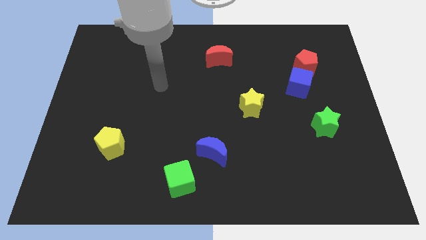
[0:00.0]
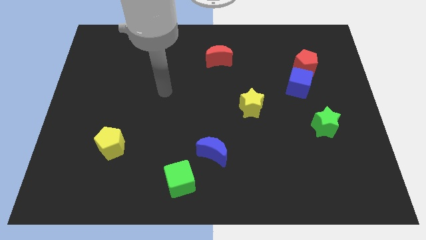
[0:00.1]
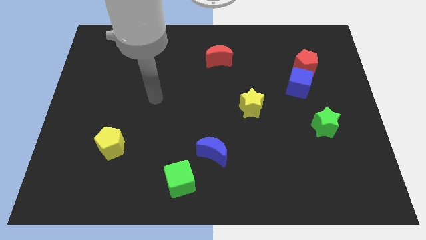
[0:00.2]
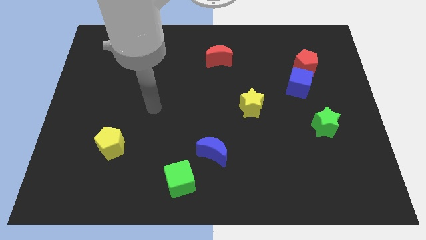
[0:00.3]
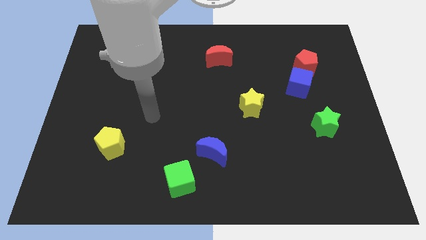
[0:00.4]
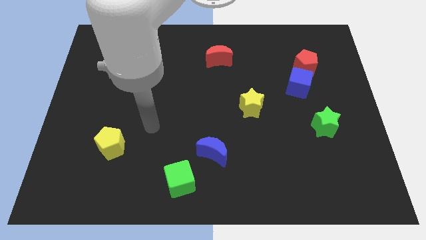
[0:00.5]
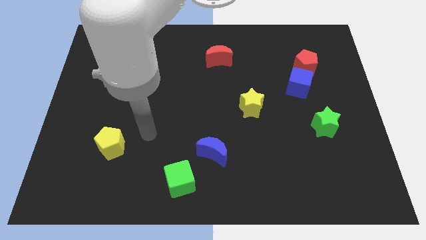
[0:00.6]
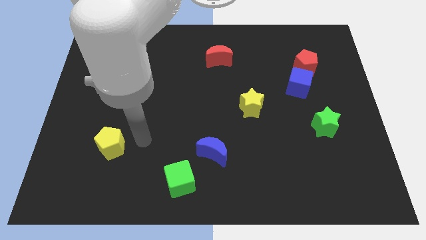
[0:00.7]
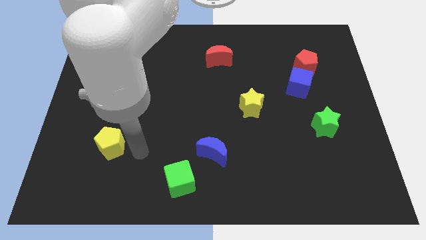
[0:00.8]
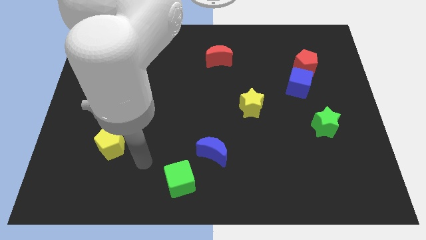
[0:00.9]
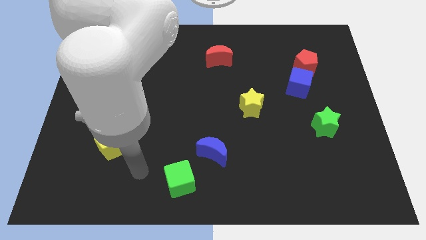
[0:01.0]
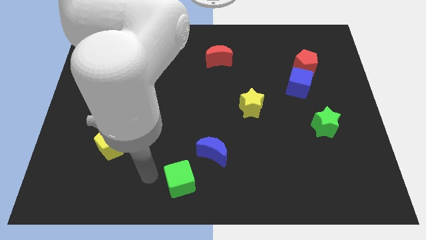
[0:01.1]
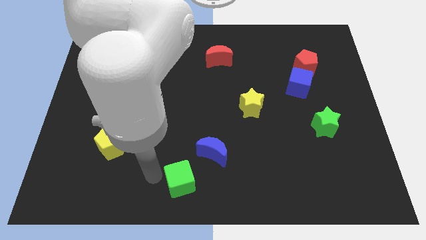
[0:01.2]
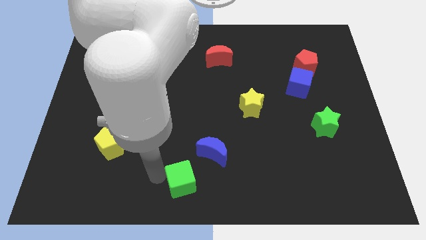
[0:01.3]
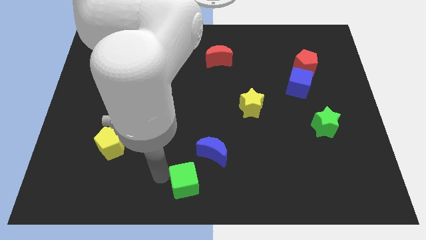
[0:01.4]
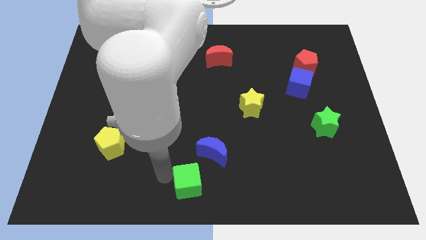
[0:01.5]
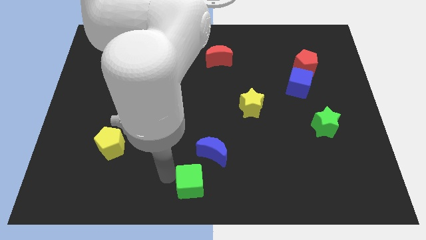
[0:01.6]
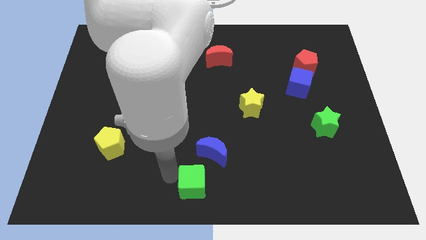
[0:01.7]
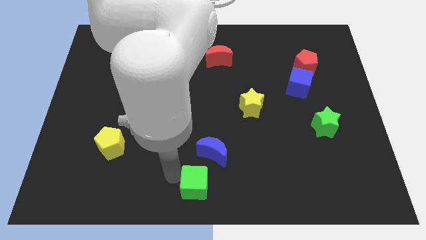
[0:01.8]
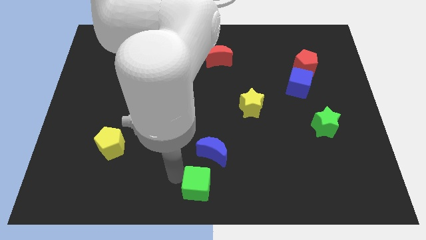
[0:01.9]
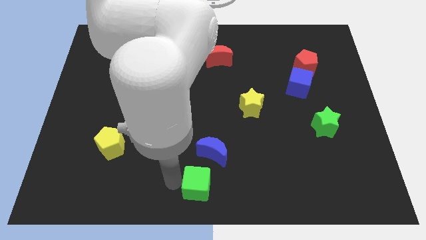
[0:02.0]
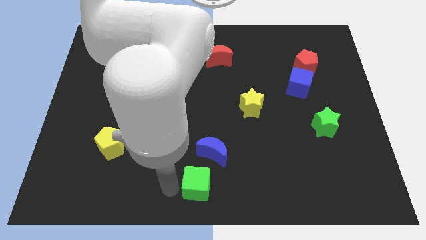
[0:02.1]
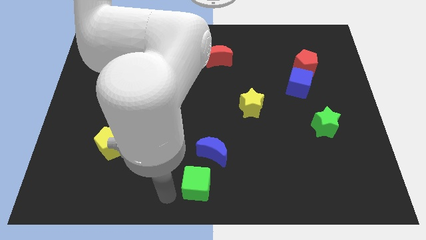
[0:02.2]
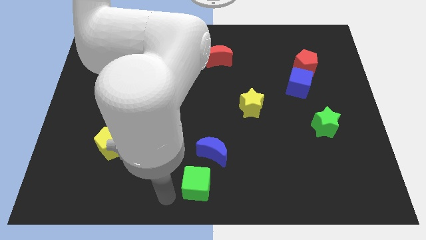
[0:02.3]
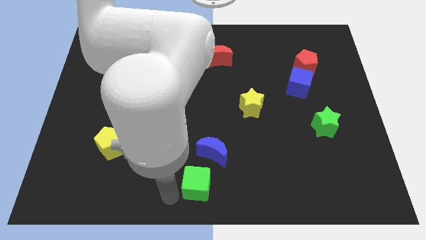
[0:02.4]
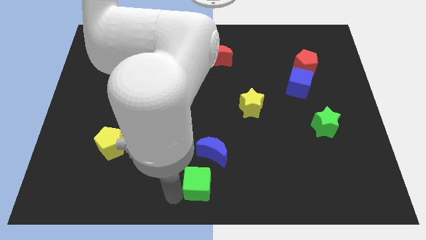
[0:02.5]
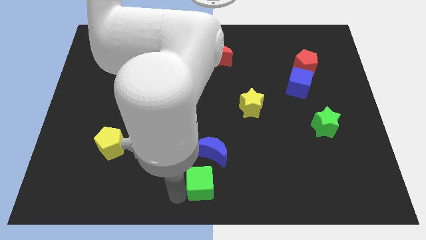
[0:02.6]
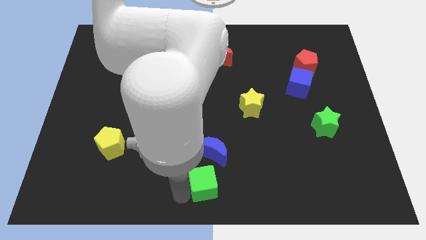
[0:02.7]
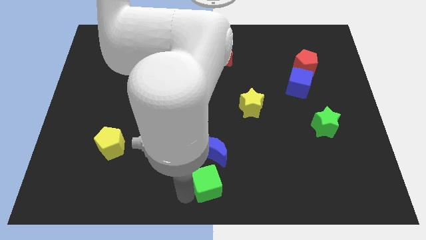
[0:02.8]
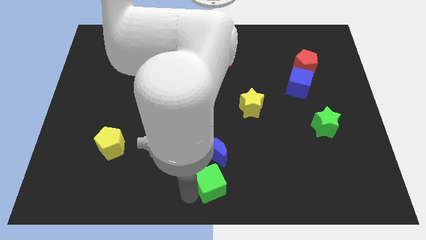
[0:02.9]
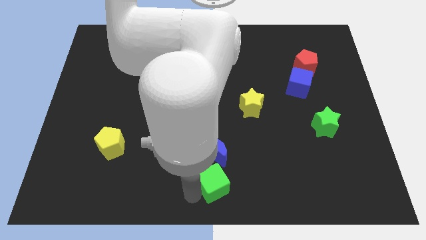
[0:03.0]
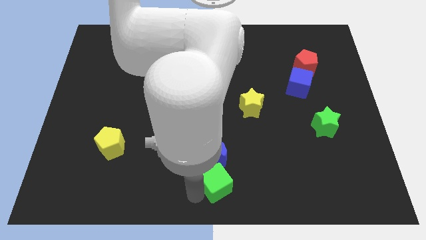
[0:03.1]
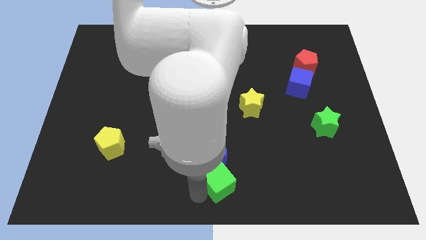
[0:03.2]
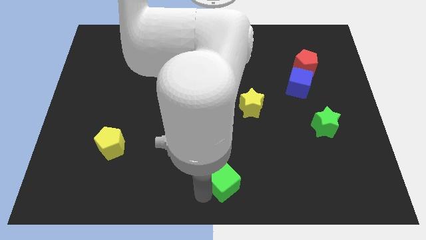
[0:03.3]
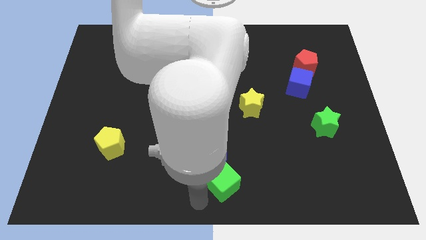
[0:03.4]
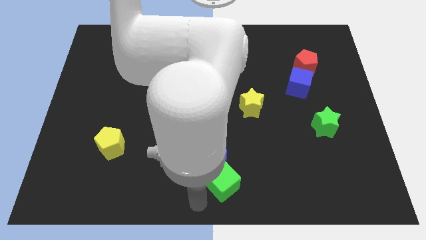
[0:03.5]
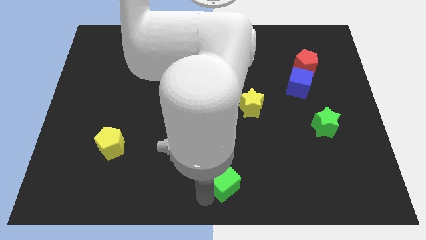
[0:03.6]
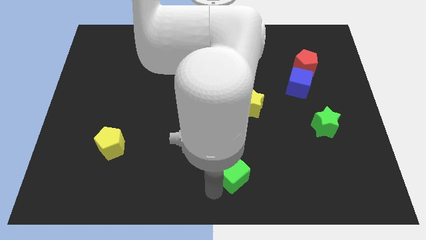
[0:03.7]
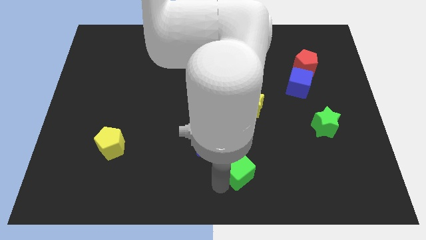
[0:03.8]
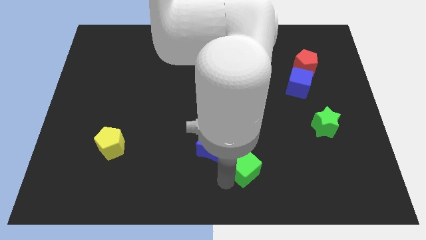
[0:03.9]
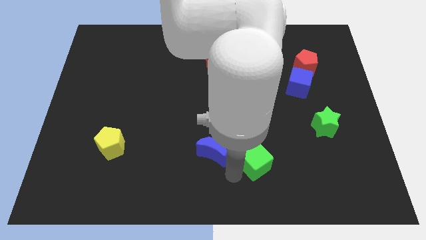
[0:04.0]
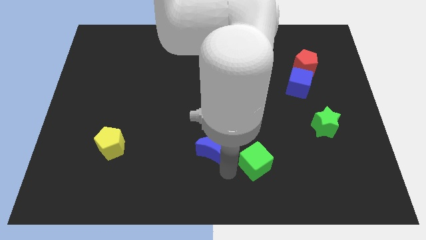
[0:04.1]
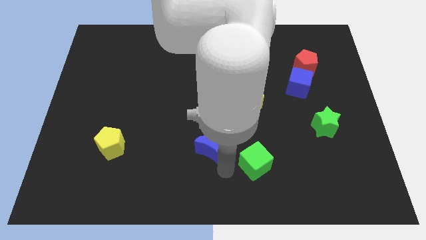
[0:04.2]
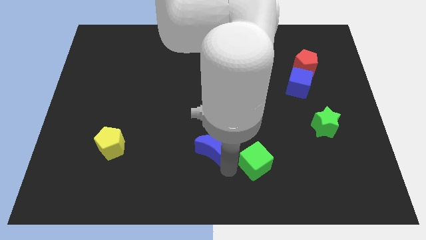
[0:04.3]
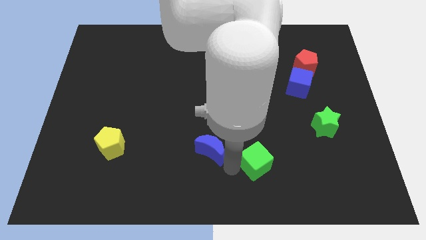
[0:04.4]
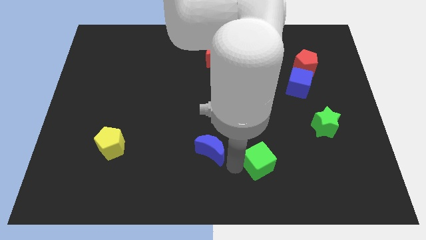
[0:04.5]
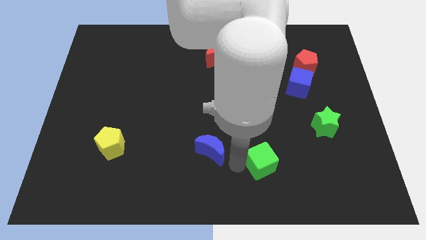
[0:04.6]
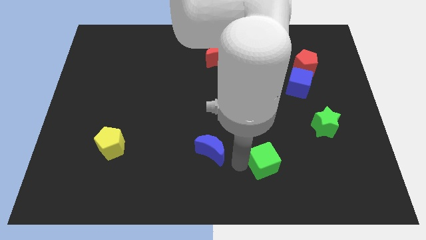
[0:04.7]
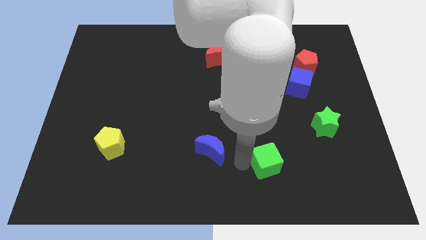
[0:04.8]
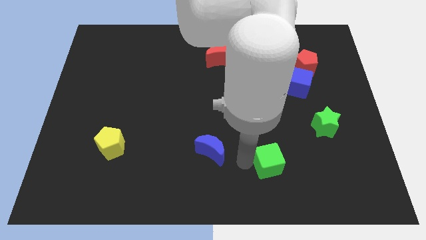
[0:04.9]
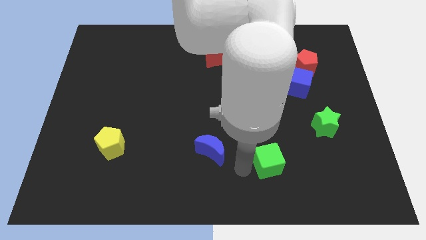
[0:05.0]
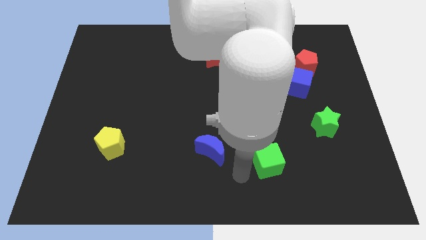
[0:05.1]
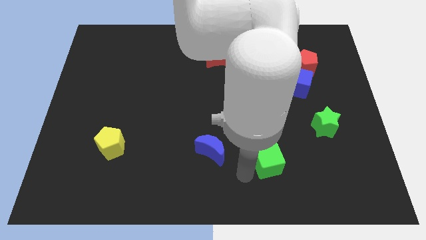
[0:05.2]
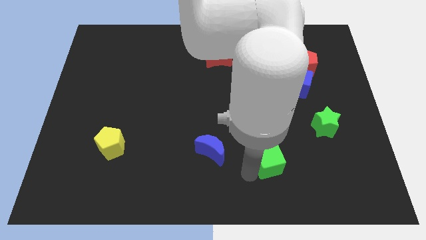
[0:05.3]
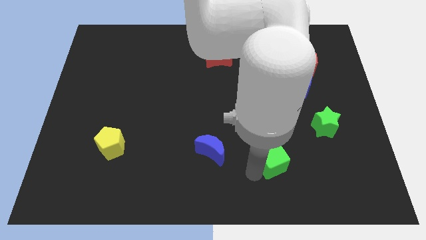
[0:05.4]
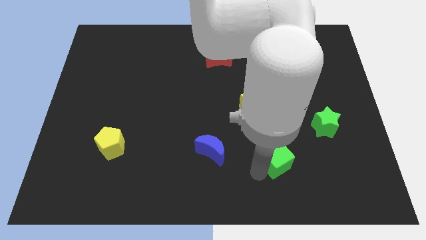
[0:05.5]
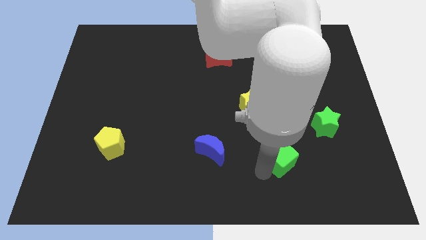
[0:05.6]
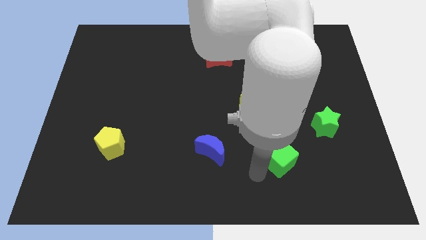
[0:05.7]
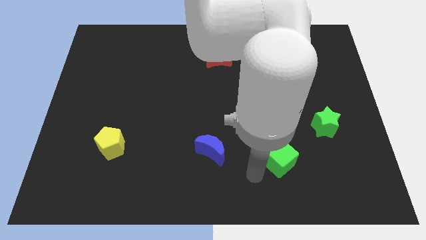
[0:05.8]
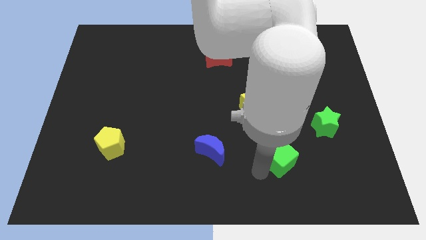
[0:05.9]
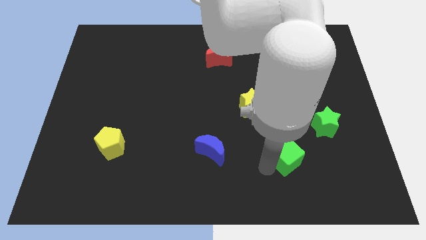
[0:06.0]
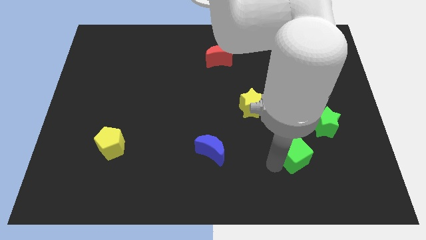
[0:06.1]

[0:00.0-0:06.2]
move the green cube to the bottom left of the green star

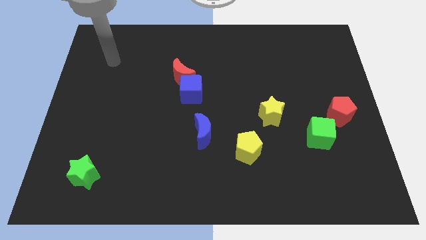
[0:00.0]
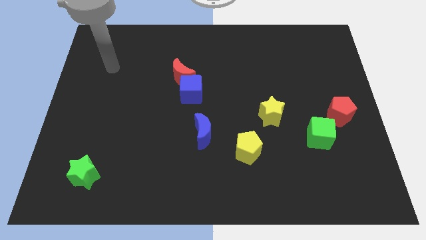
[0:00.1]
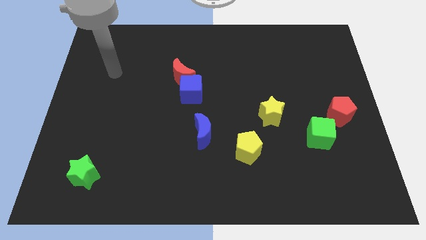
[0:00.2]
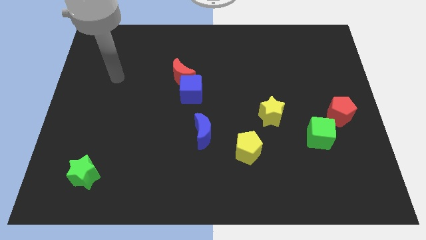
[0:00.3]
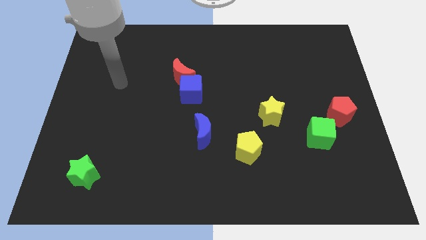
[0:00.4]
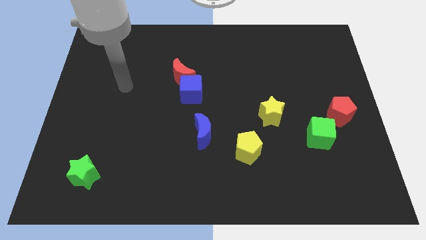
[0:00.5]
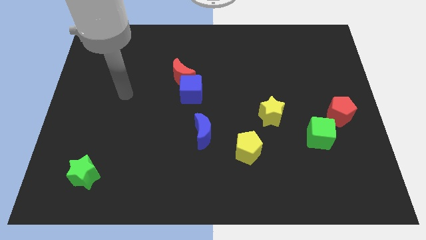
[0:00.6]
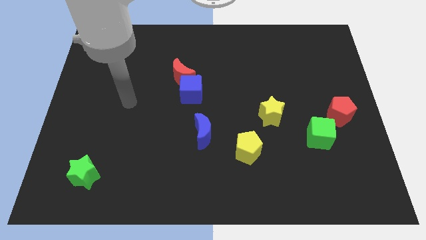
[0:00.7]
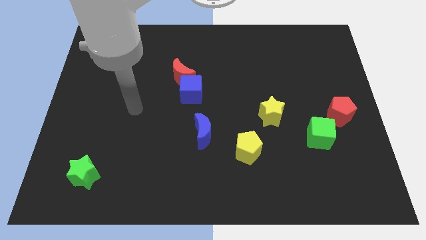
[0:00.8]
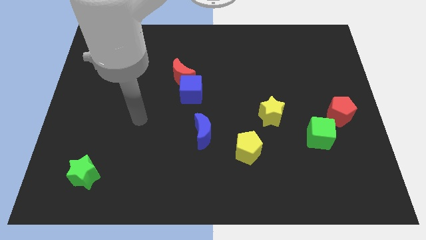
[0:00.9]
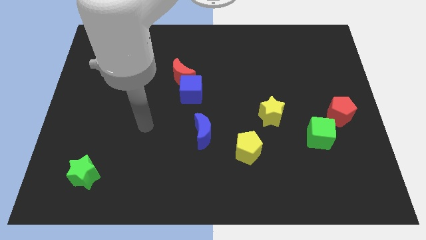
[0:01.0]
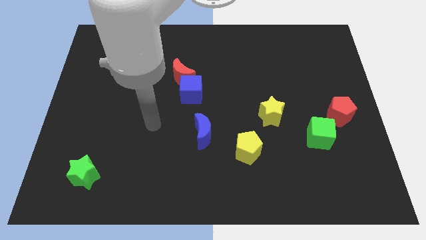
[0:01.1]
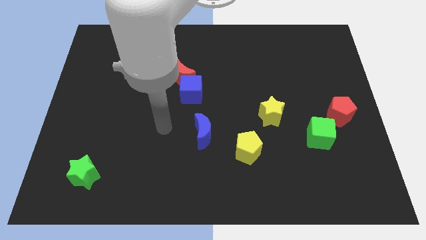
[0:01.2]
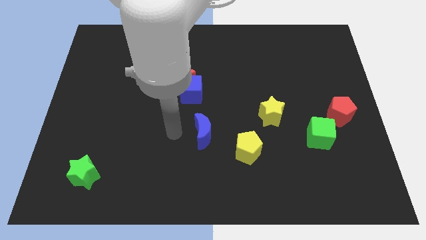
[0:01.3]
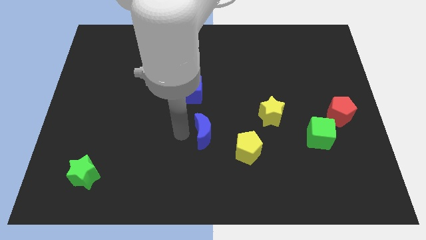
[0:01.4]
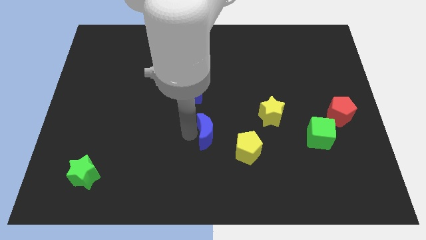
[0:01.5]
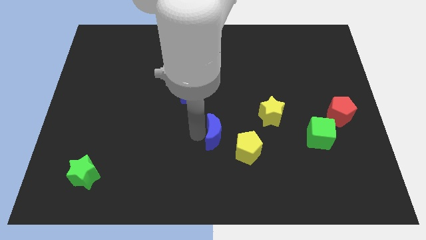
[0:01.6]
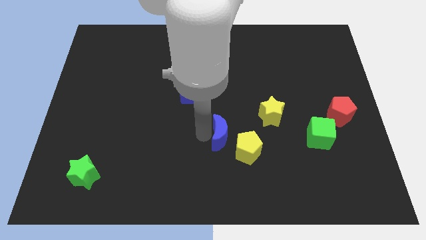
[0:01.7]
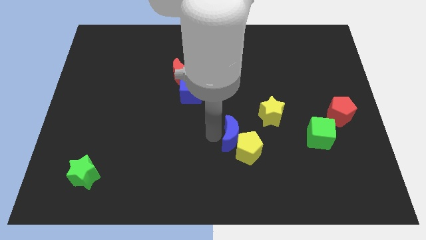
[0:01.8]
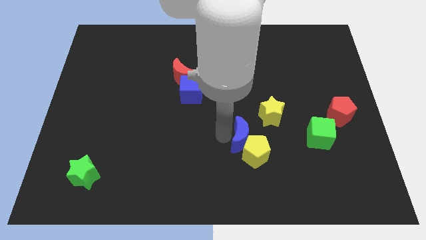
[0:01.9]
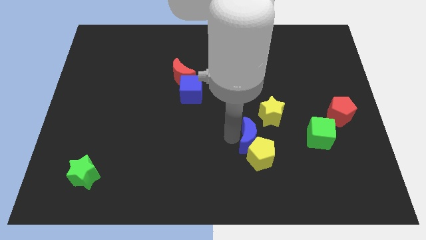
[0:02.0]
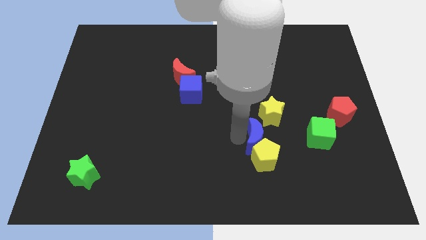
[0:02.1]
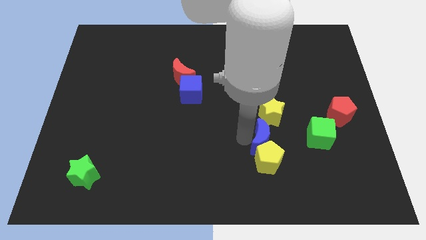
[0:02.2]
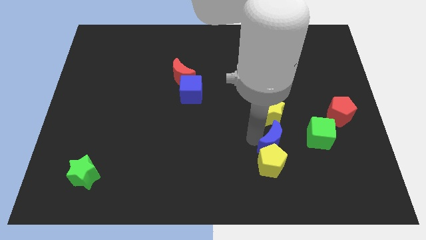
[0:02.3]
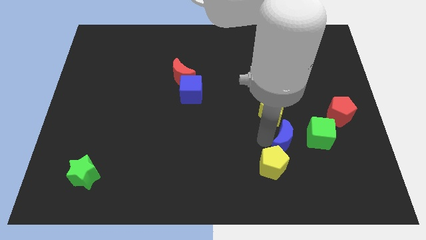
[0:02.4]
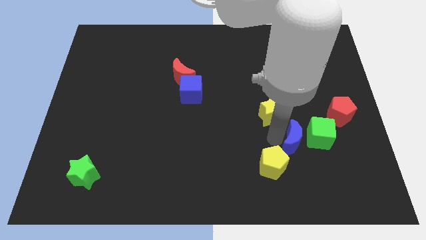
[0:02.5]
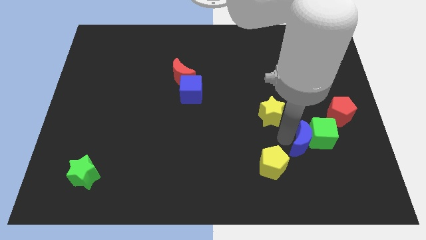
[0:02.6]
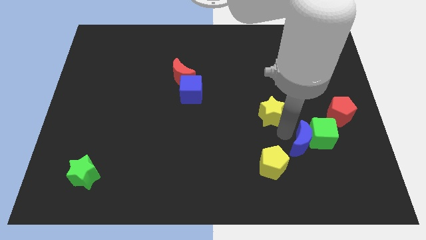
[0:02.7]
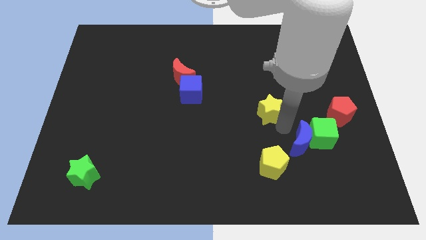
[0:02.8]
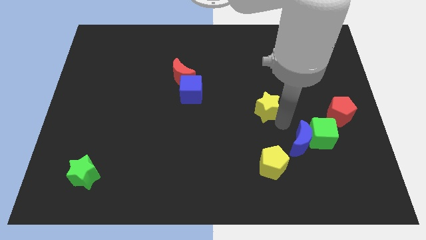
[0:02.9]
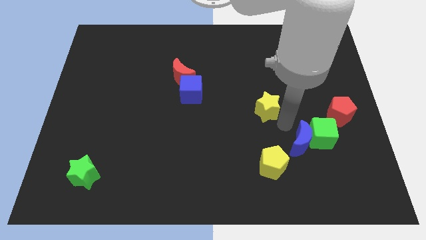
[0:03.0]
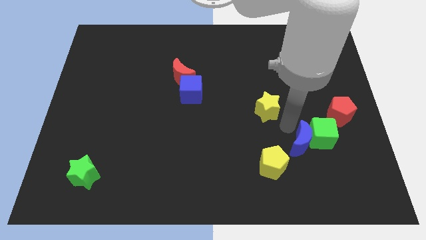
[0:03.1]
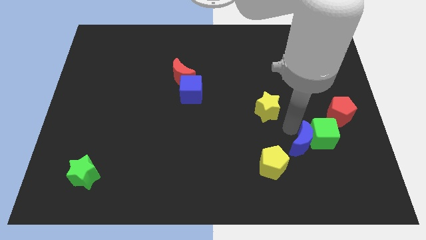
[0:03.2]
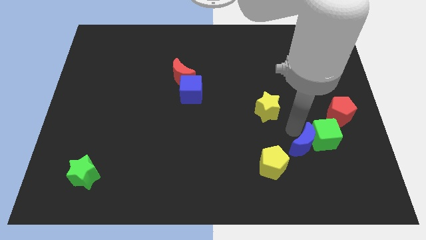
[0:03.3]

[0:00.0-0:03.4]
move the blue moon to the right side of the yellow pentagon
